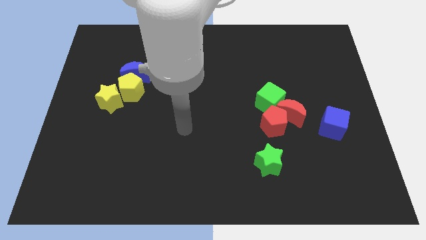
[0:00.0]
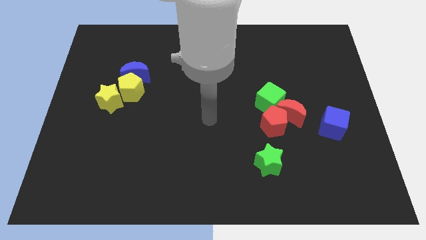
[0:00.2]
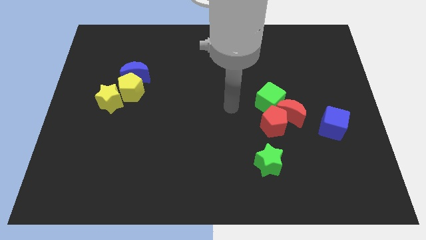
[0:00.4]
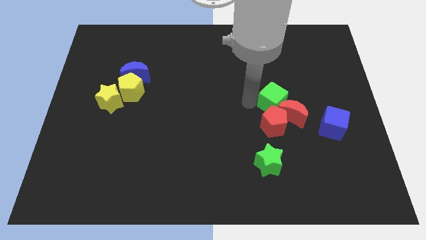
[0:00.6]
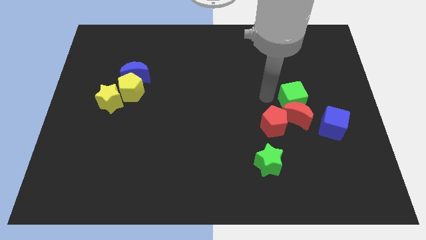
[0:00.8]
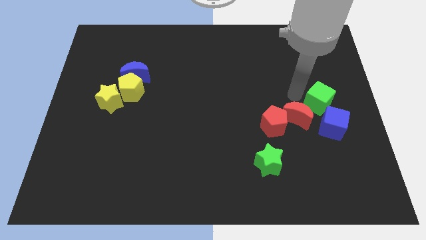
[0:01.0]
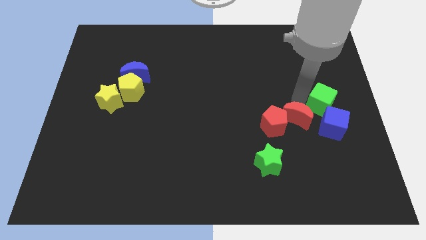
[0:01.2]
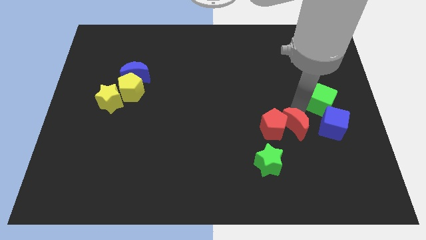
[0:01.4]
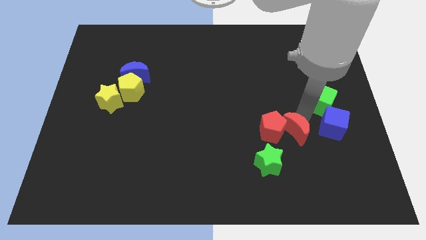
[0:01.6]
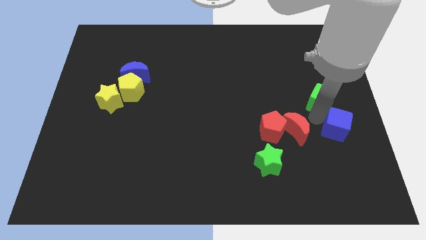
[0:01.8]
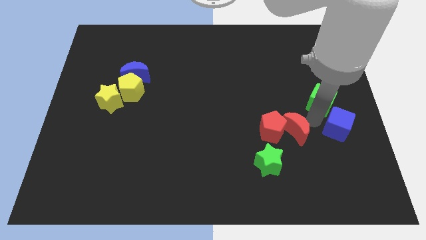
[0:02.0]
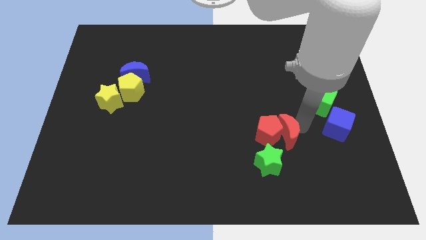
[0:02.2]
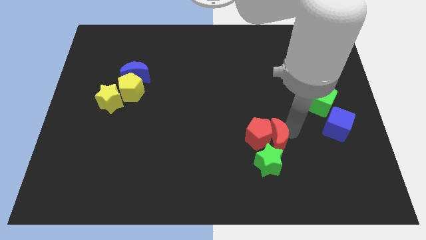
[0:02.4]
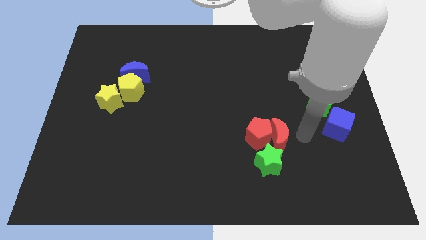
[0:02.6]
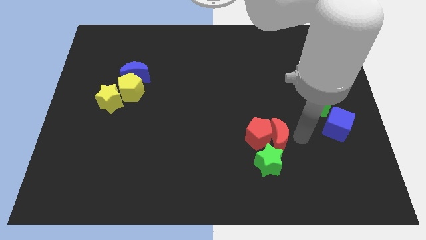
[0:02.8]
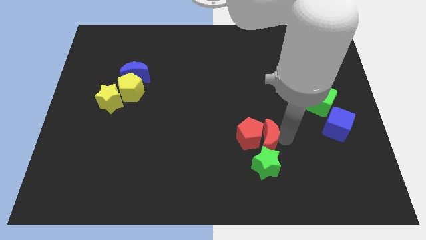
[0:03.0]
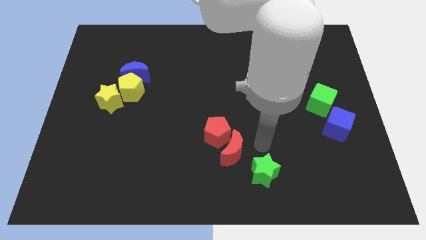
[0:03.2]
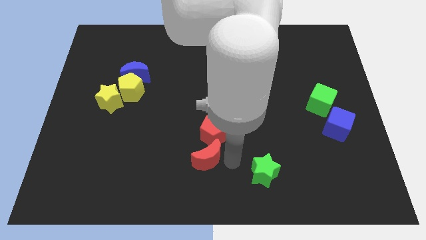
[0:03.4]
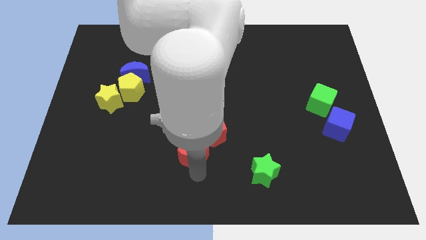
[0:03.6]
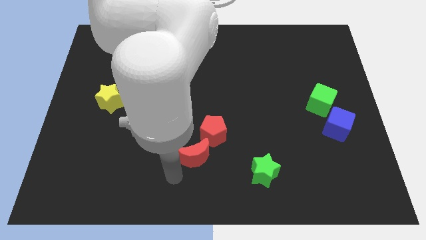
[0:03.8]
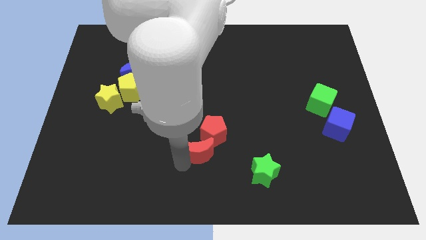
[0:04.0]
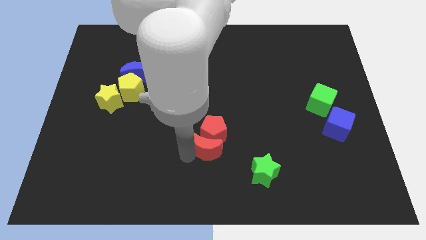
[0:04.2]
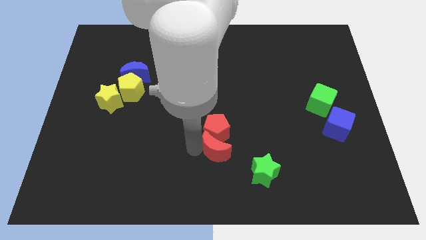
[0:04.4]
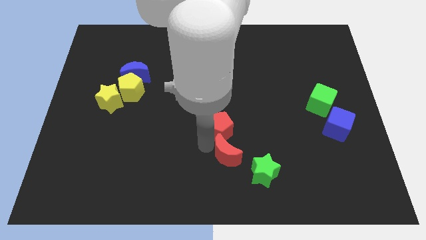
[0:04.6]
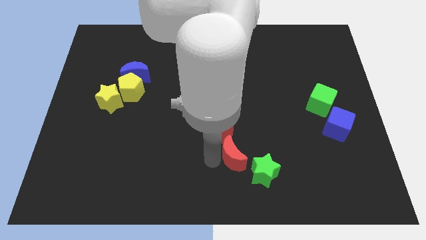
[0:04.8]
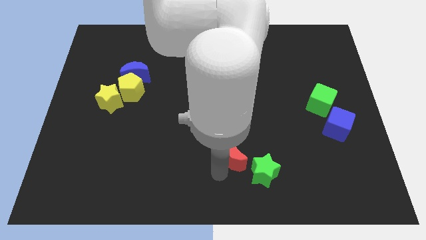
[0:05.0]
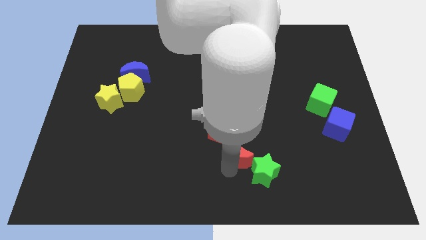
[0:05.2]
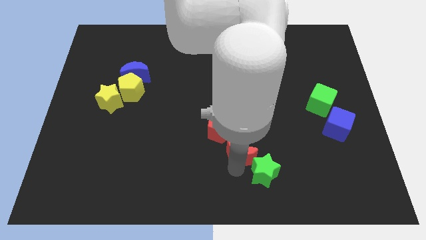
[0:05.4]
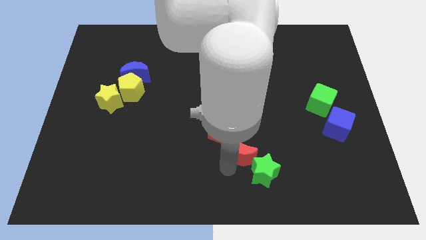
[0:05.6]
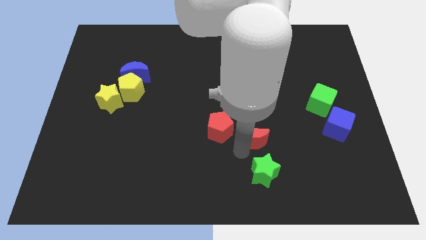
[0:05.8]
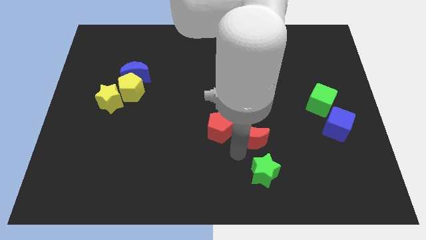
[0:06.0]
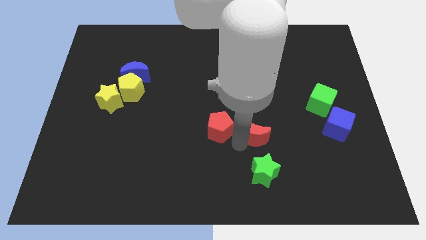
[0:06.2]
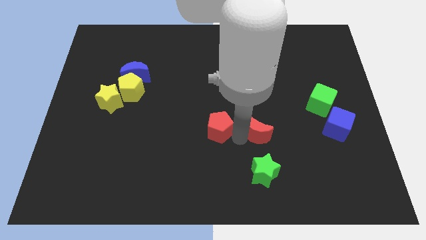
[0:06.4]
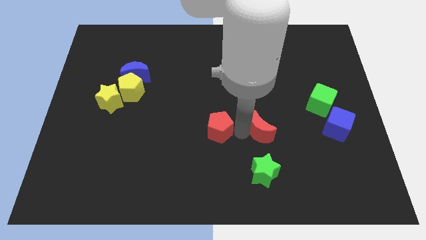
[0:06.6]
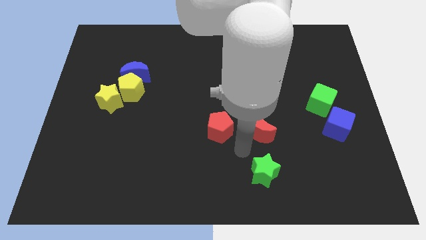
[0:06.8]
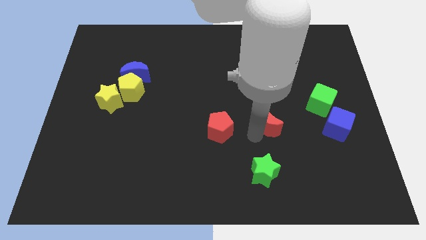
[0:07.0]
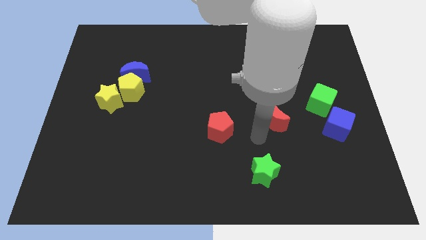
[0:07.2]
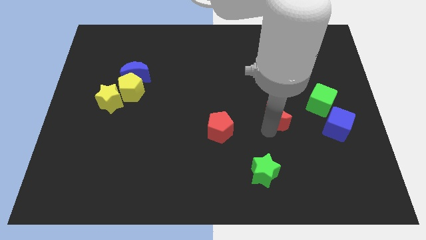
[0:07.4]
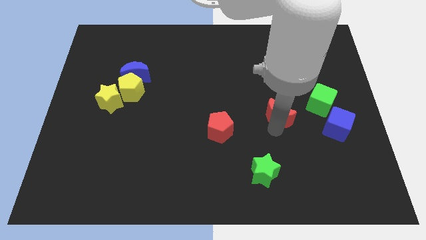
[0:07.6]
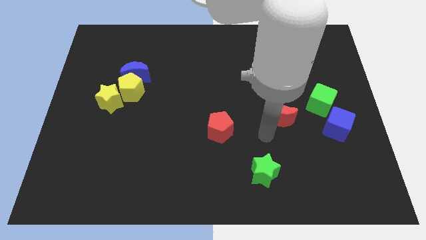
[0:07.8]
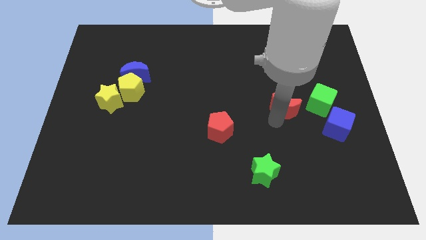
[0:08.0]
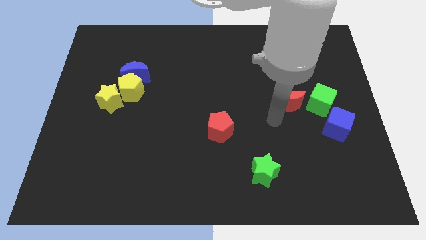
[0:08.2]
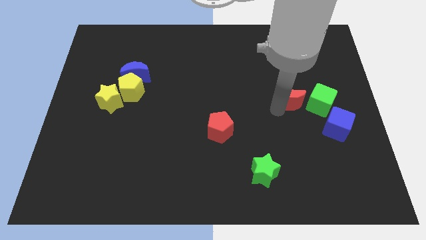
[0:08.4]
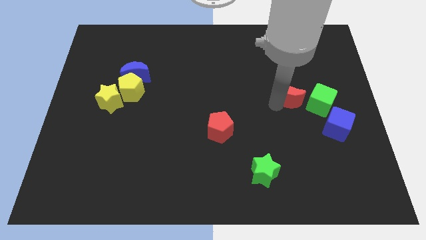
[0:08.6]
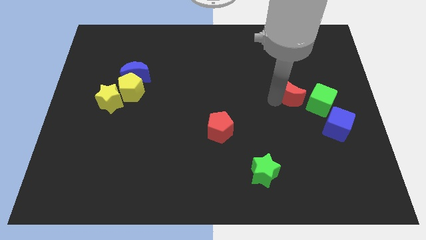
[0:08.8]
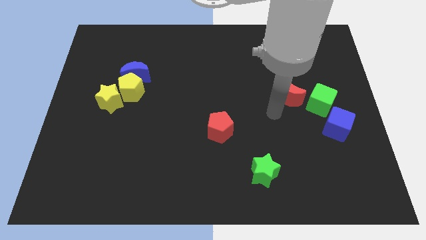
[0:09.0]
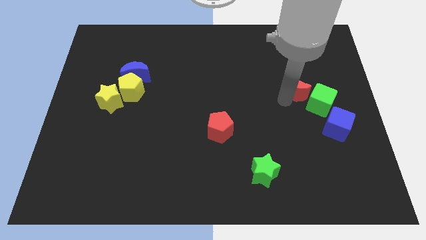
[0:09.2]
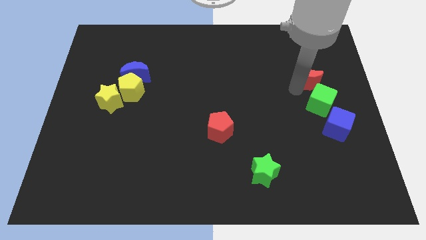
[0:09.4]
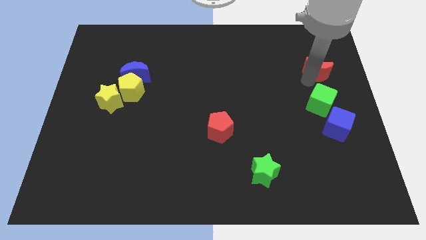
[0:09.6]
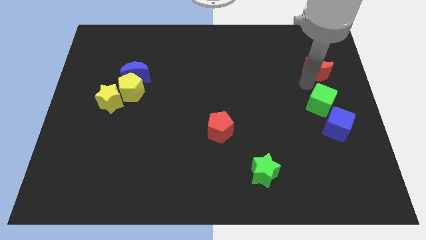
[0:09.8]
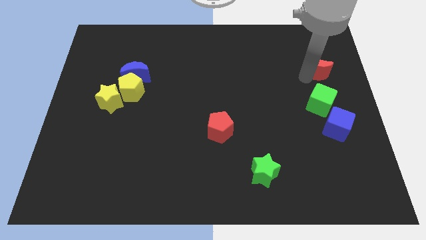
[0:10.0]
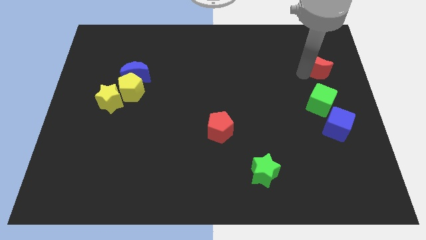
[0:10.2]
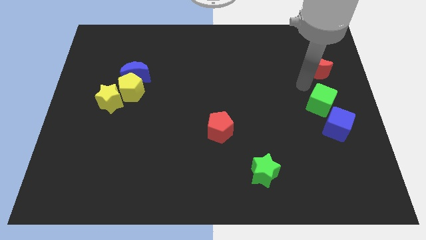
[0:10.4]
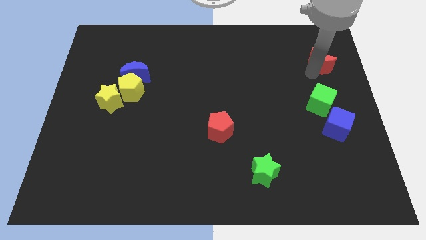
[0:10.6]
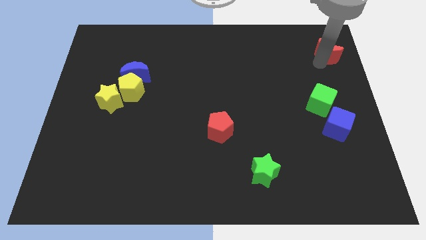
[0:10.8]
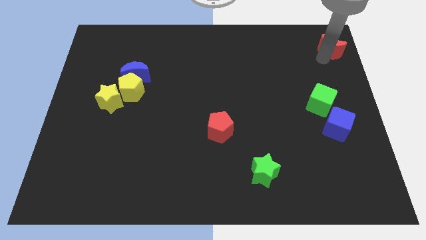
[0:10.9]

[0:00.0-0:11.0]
push the red moon to the upper right corner

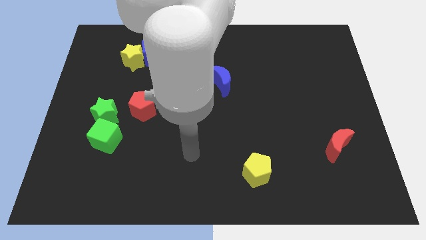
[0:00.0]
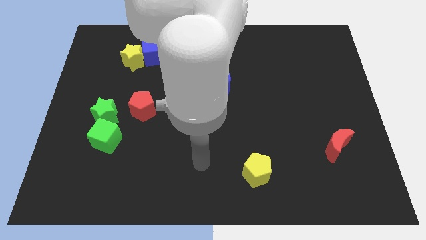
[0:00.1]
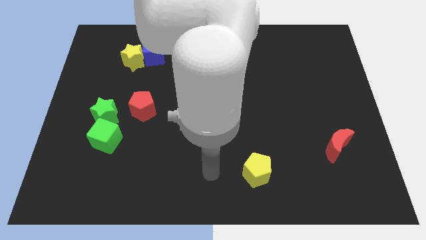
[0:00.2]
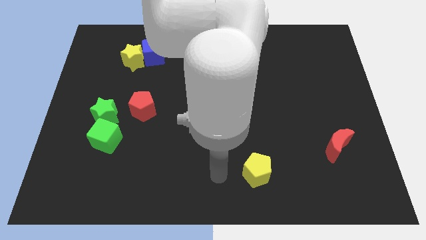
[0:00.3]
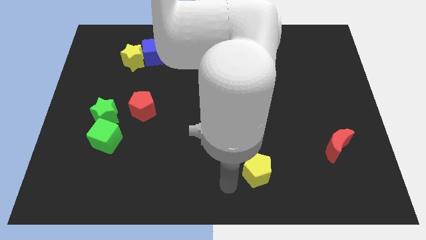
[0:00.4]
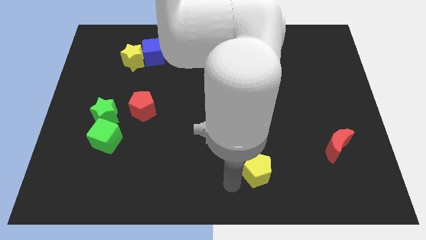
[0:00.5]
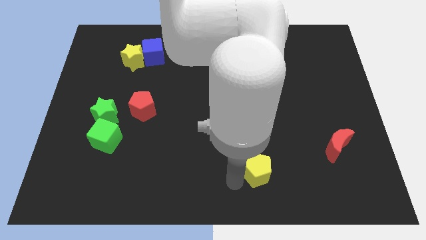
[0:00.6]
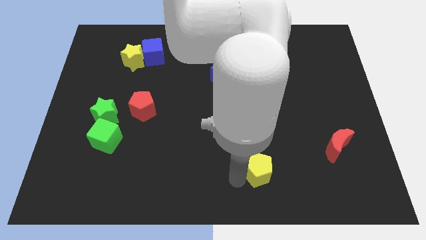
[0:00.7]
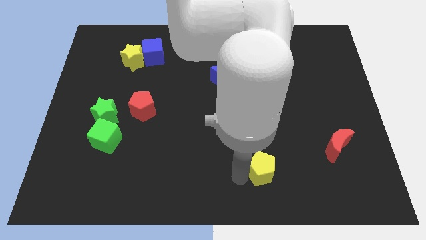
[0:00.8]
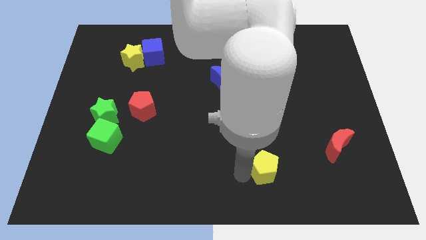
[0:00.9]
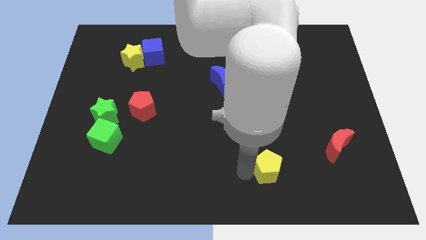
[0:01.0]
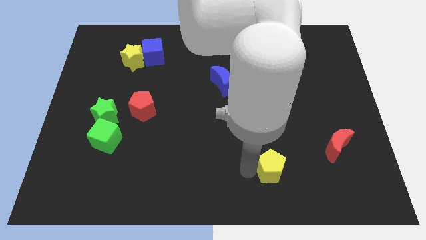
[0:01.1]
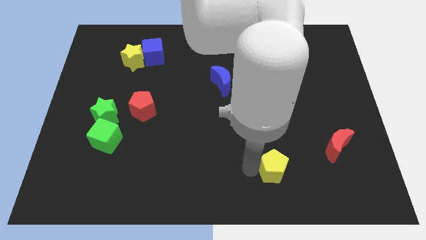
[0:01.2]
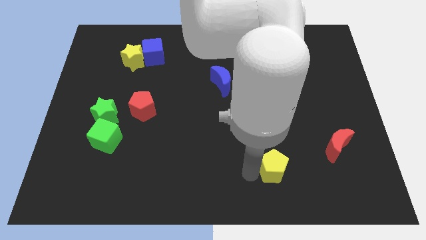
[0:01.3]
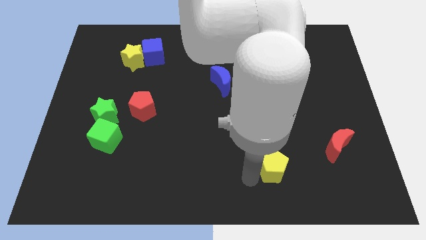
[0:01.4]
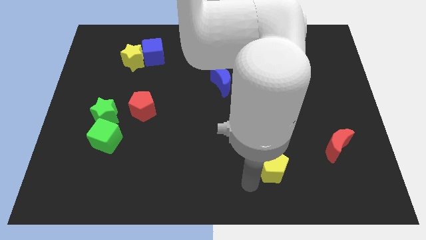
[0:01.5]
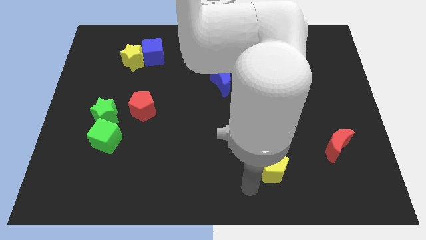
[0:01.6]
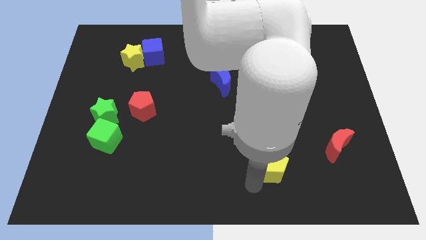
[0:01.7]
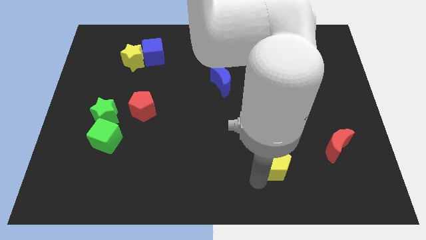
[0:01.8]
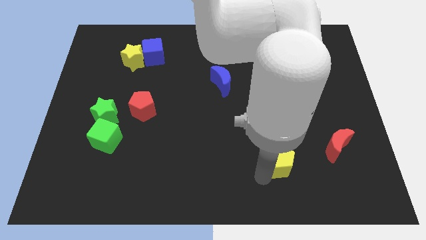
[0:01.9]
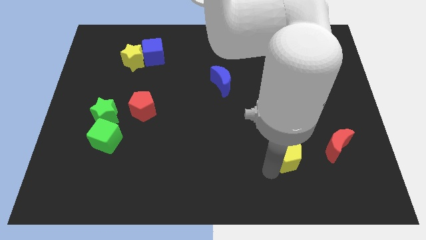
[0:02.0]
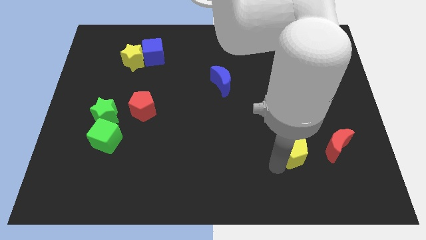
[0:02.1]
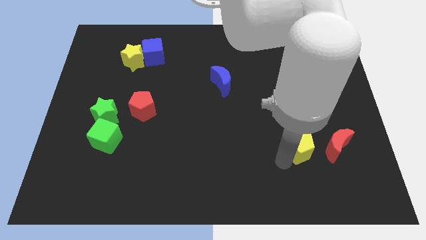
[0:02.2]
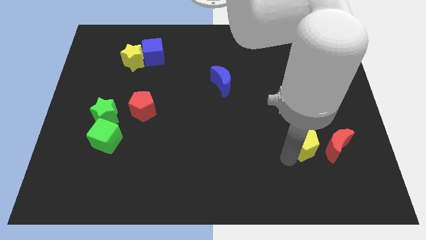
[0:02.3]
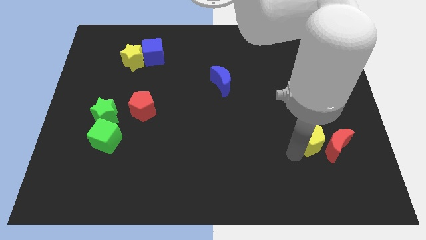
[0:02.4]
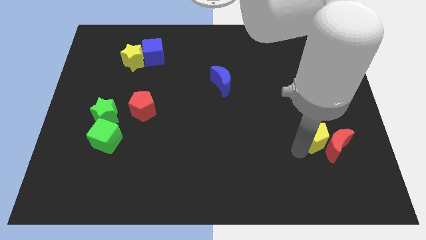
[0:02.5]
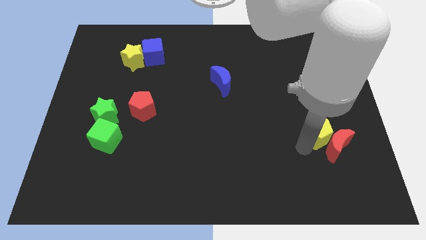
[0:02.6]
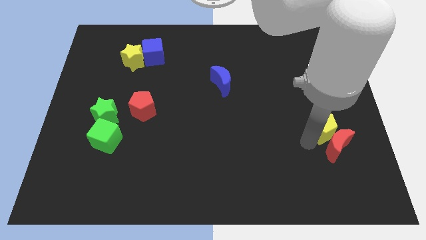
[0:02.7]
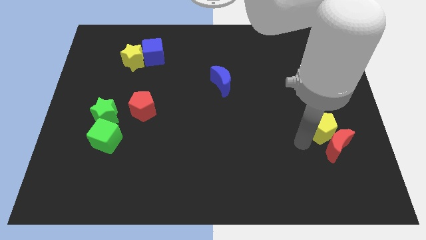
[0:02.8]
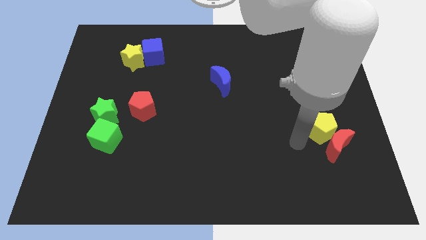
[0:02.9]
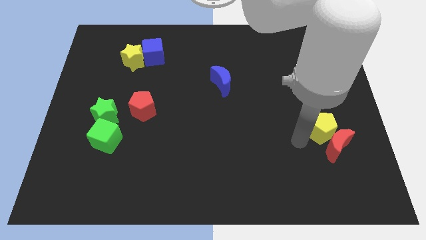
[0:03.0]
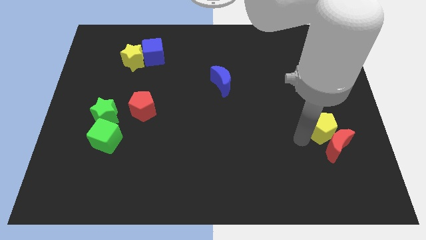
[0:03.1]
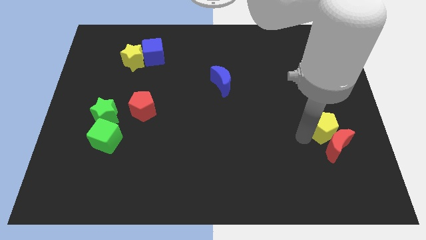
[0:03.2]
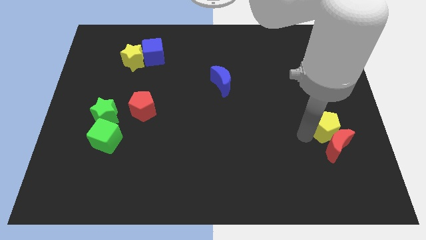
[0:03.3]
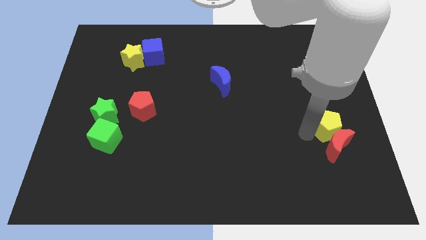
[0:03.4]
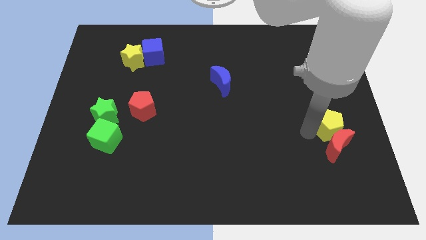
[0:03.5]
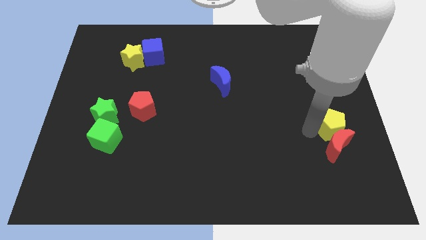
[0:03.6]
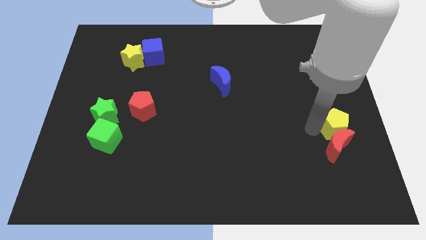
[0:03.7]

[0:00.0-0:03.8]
move the yellow pentagon to the right side
